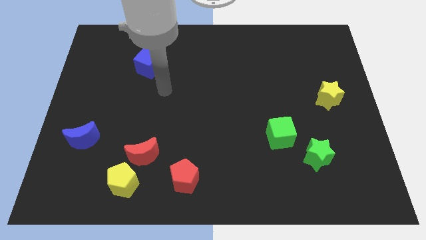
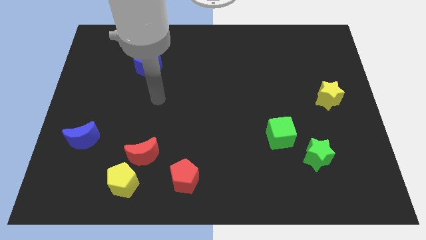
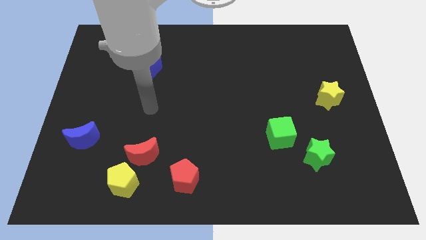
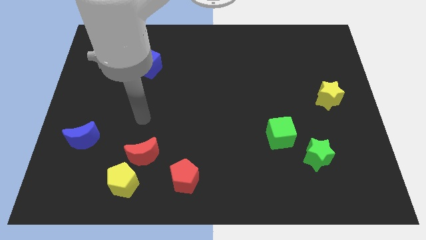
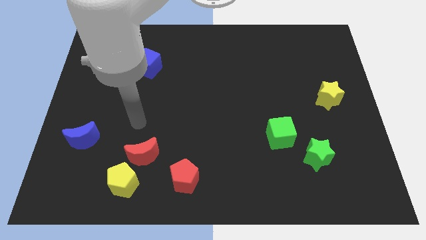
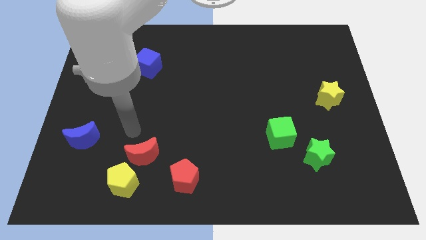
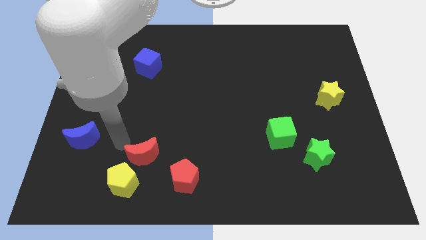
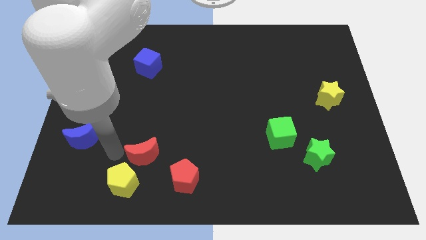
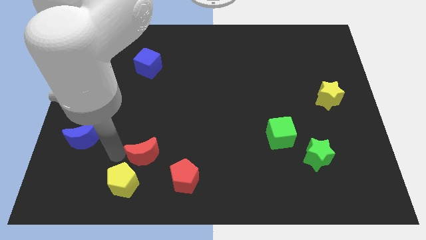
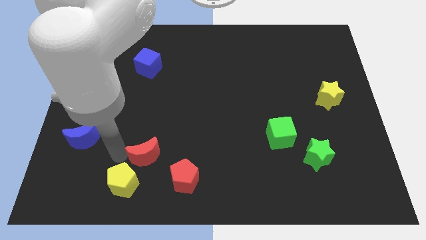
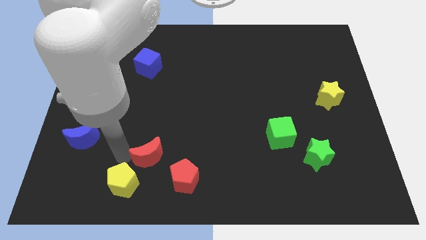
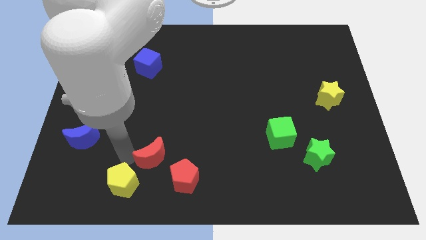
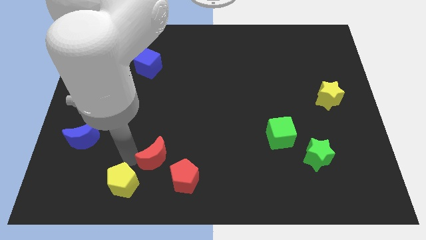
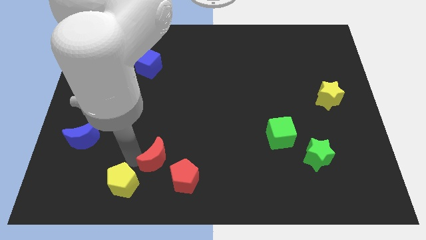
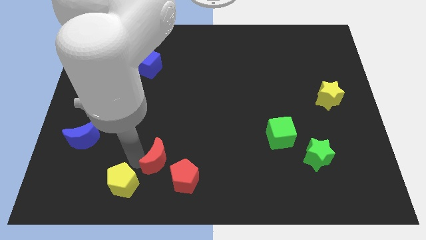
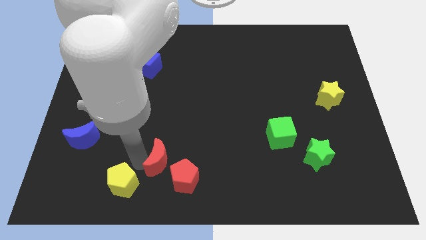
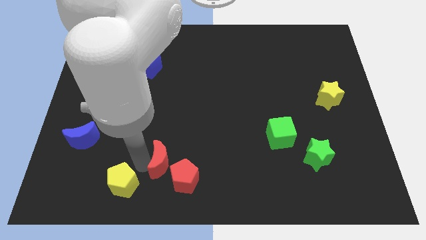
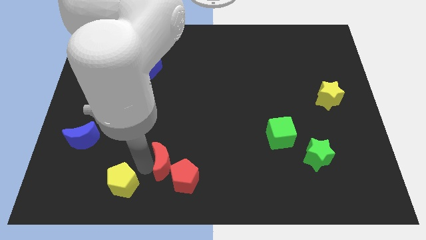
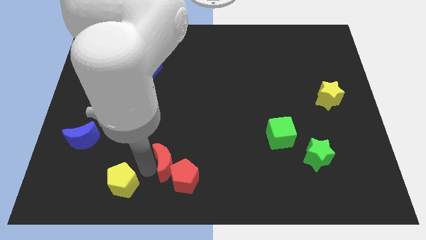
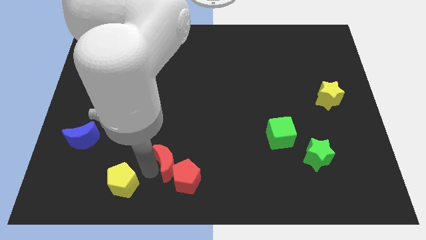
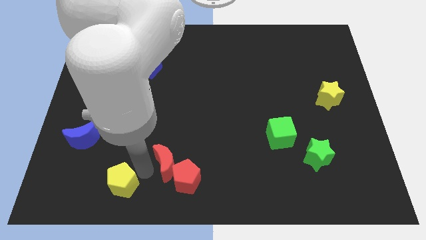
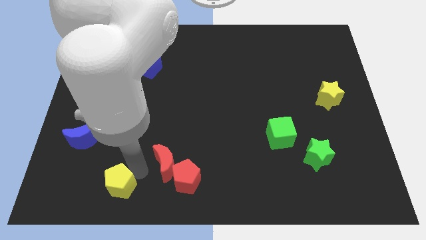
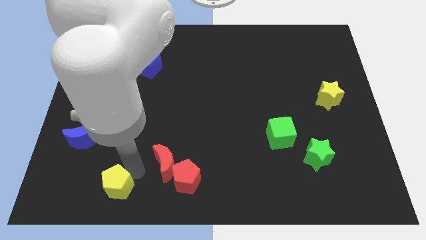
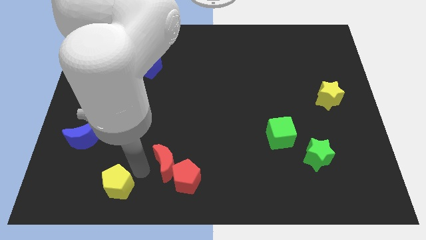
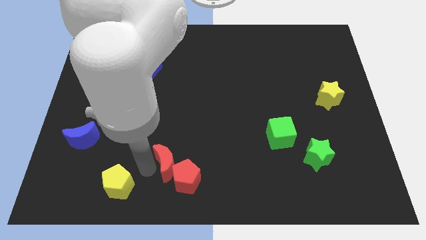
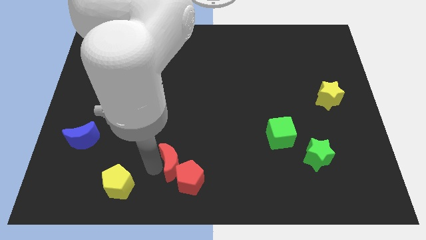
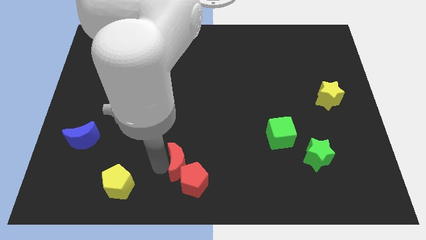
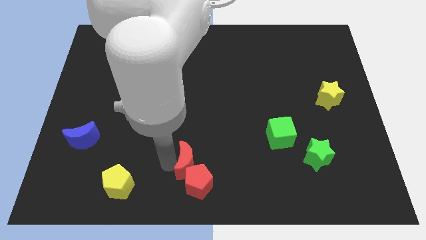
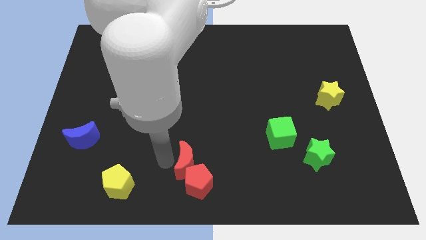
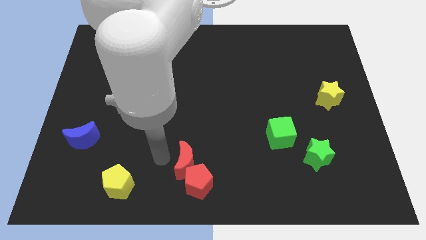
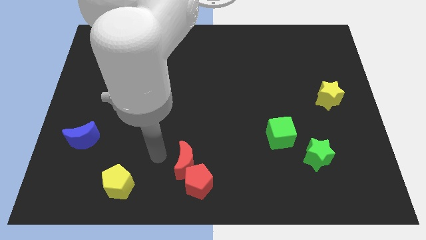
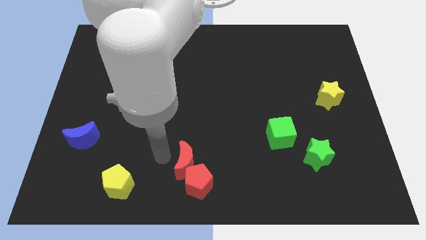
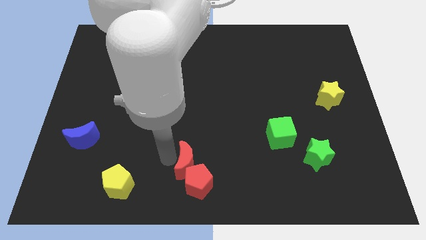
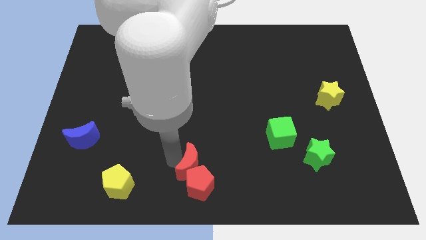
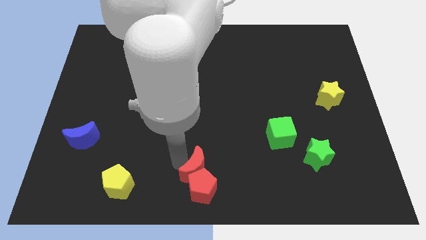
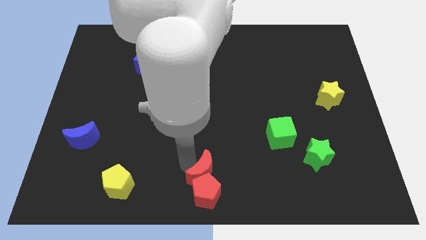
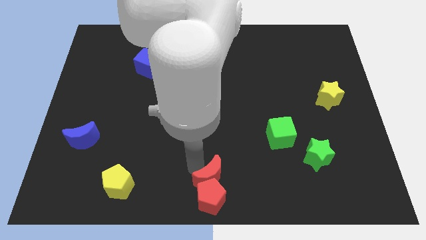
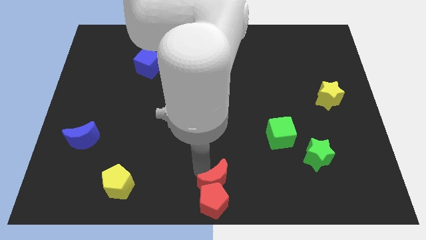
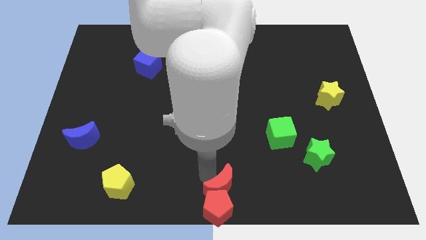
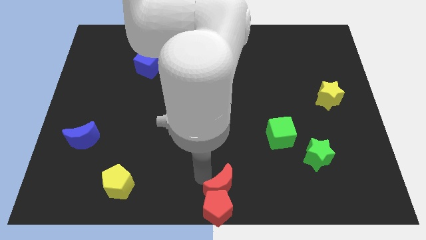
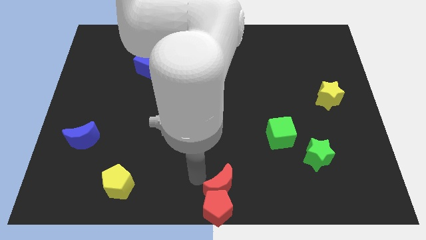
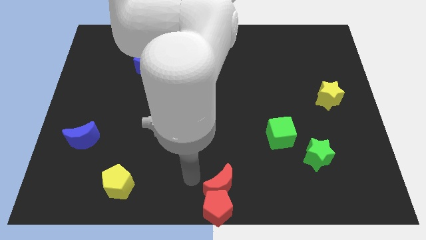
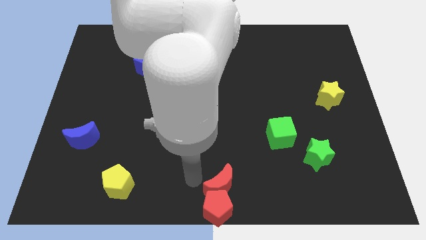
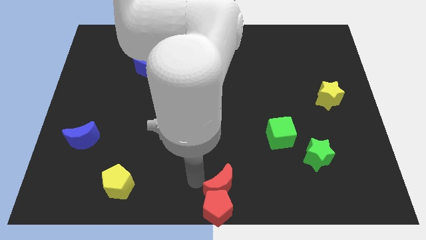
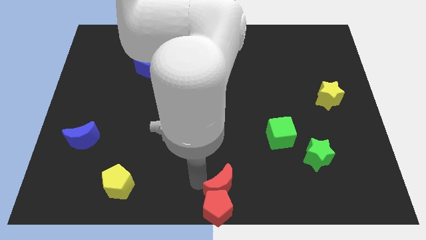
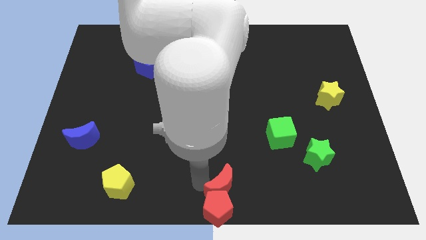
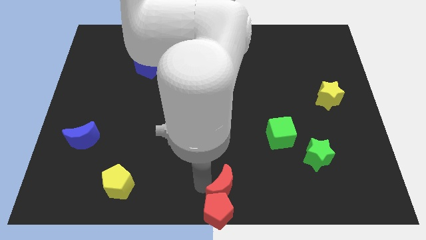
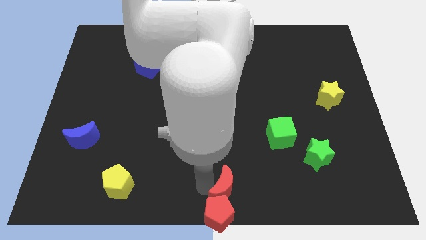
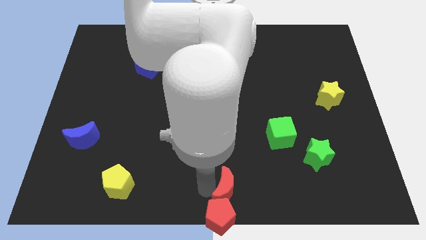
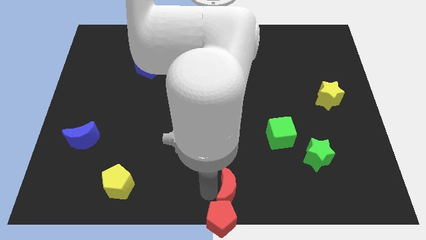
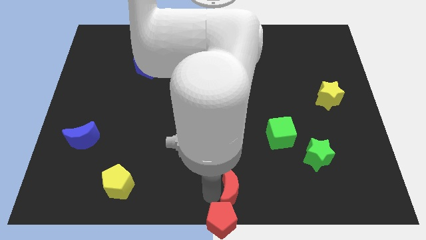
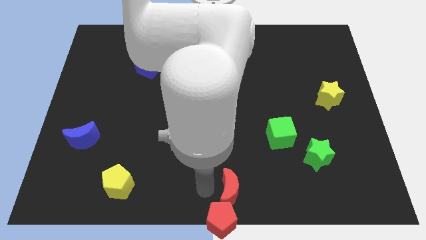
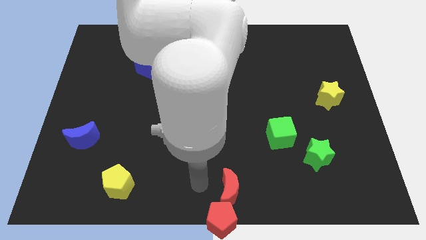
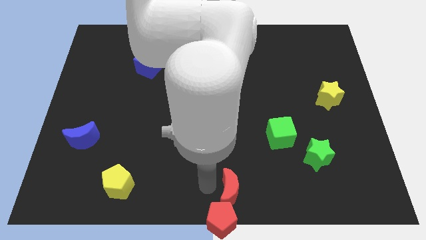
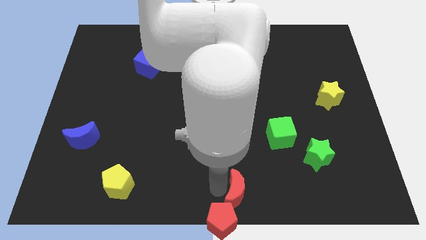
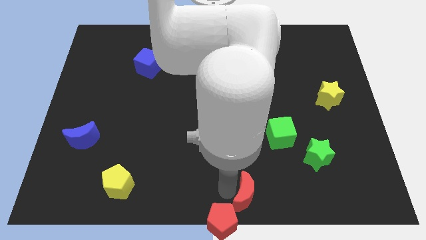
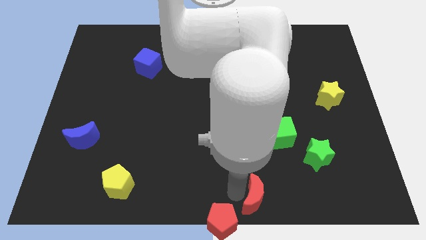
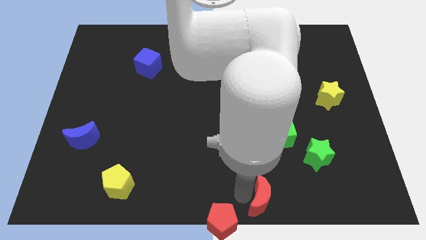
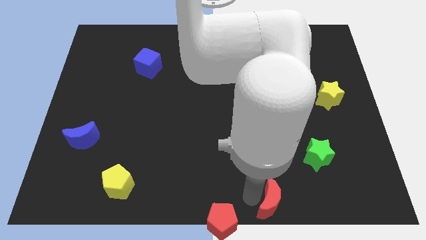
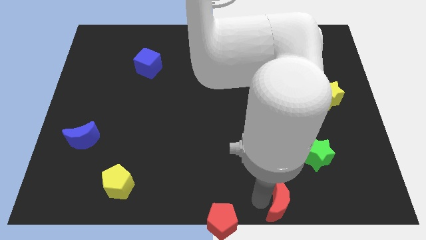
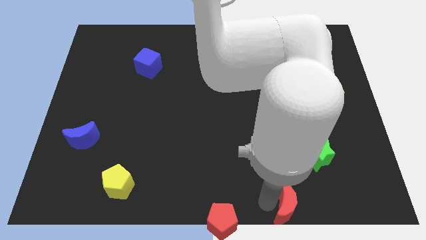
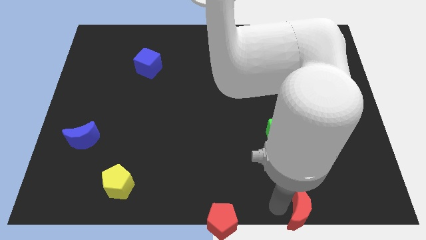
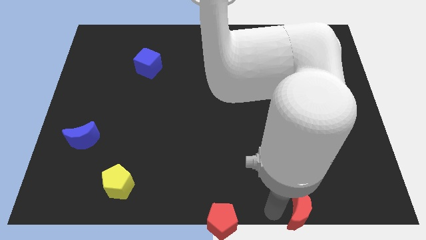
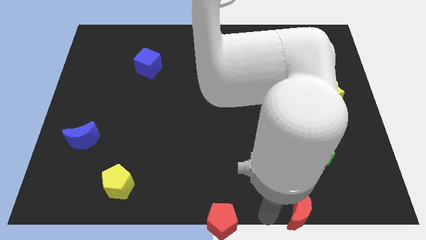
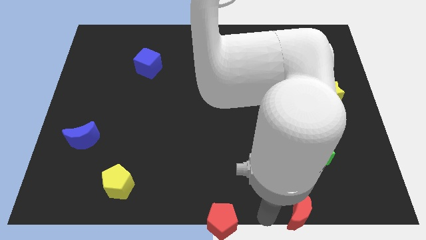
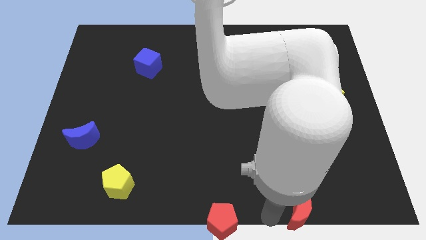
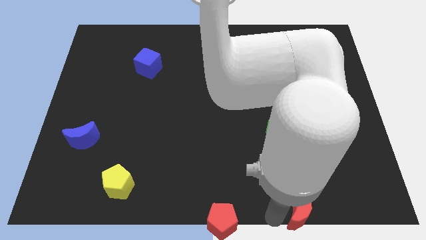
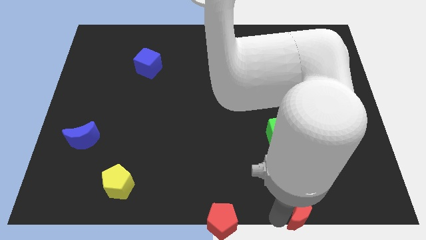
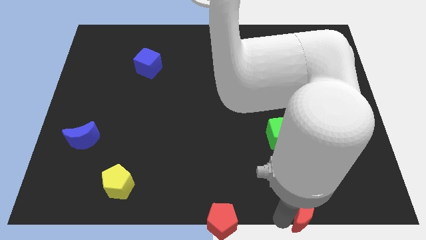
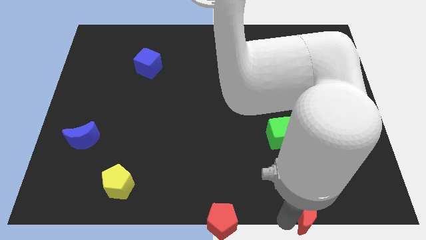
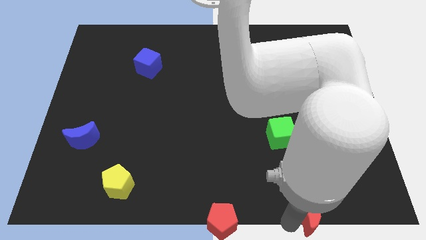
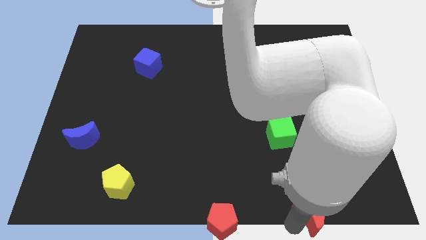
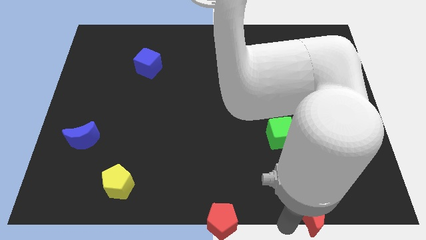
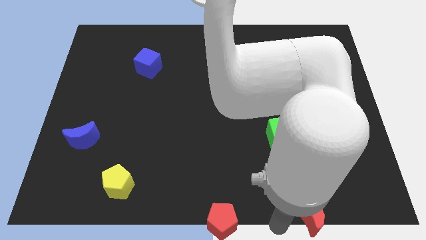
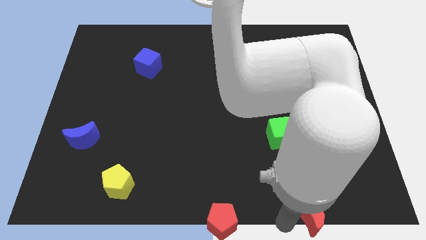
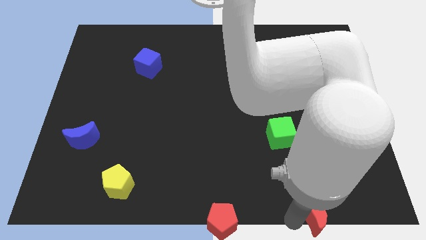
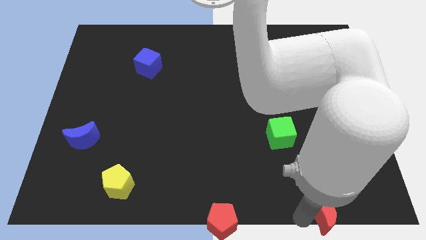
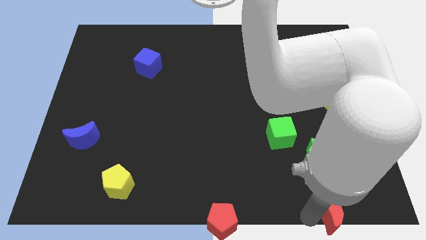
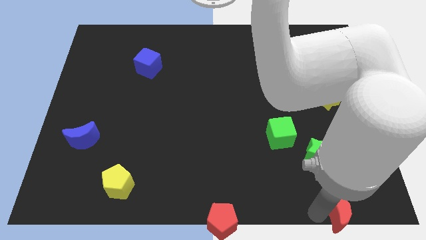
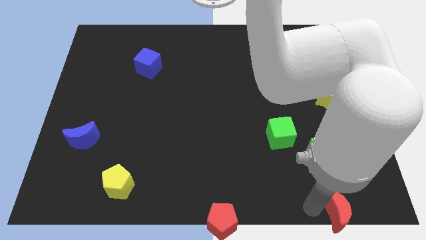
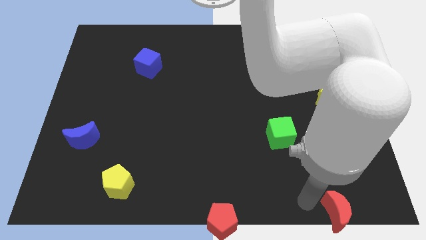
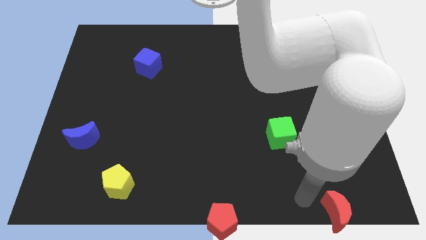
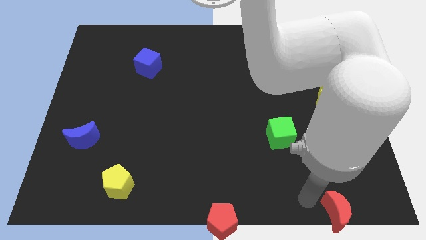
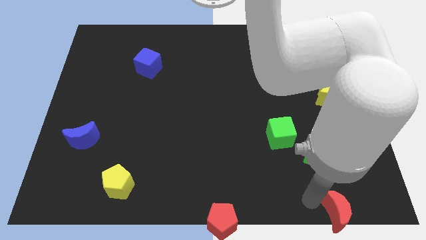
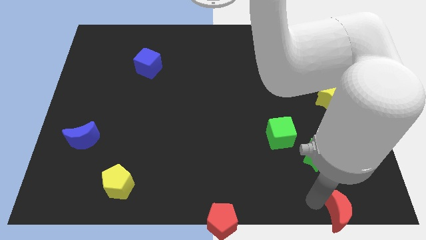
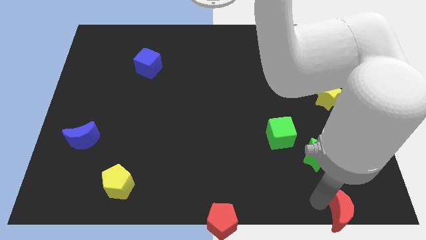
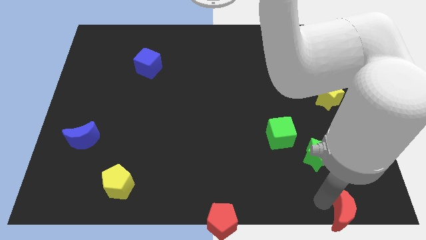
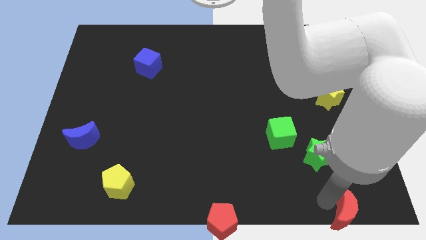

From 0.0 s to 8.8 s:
put the red moon to the bottom right of the board
